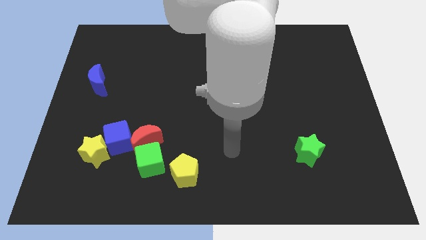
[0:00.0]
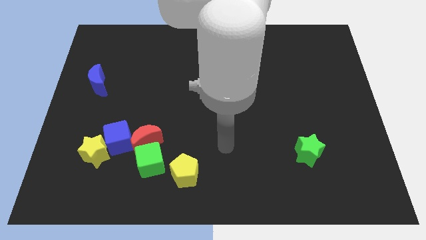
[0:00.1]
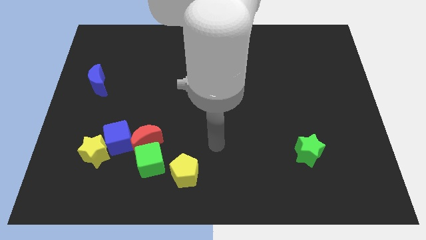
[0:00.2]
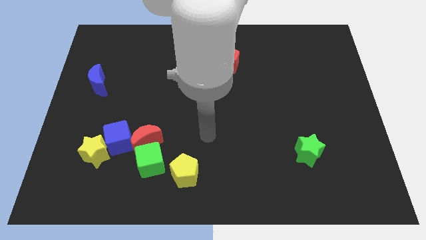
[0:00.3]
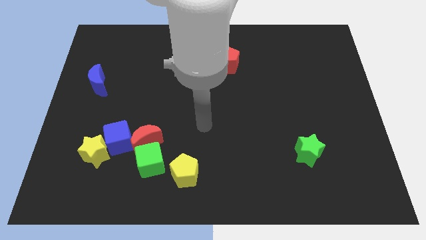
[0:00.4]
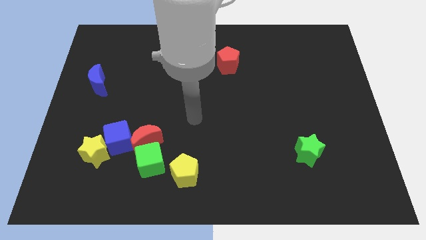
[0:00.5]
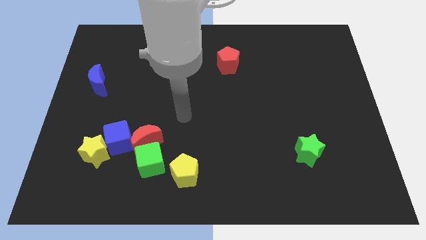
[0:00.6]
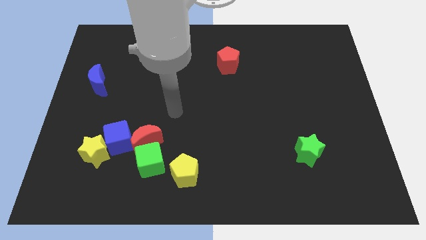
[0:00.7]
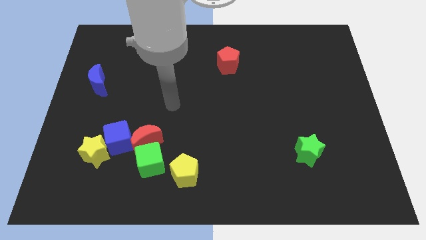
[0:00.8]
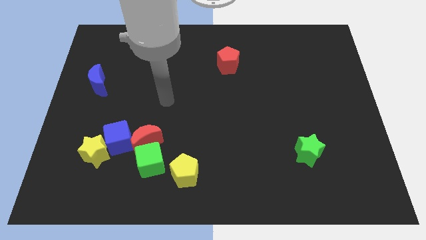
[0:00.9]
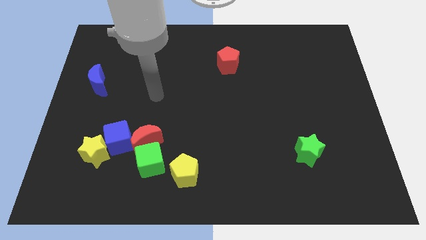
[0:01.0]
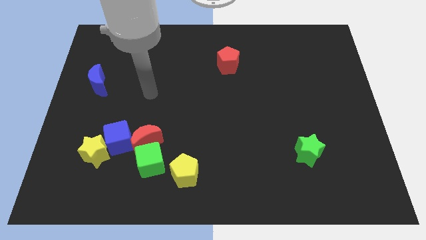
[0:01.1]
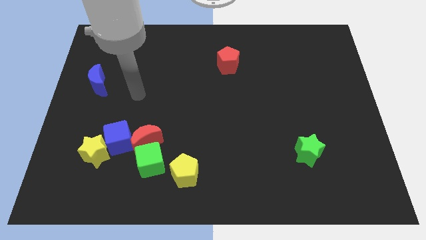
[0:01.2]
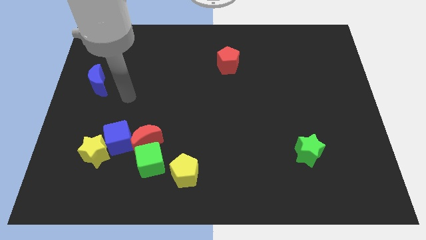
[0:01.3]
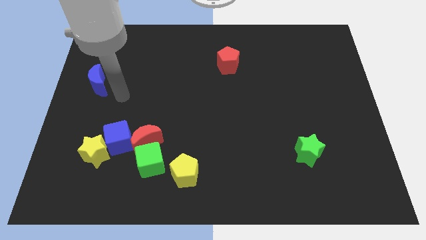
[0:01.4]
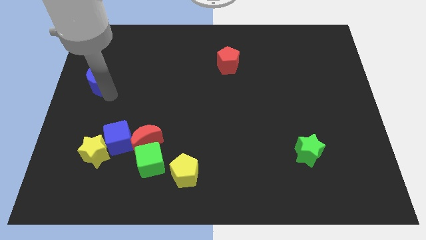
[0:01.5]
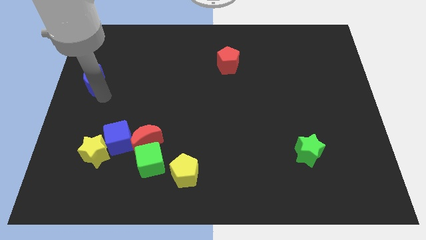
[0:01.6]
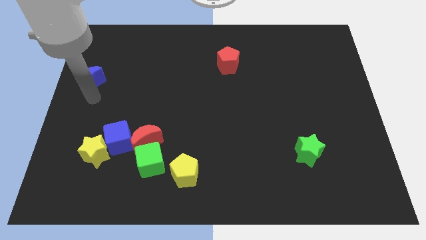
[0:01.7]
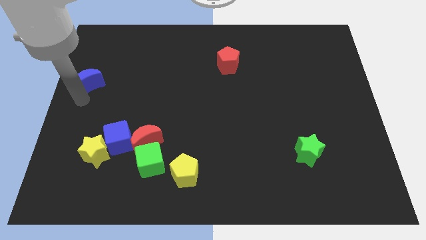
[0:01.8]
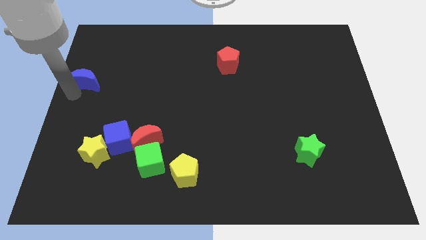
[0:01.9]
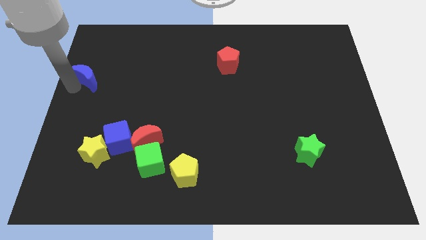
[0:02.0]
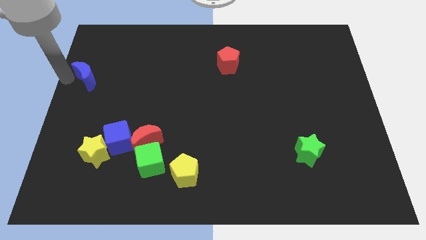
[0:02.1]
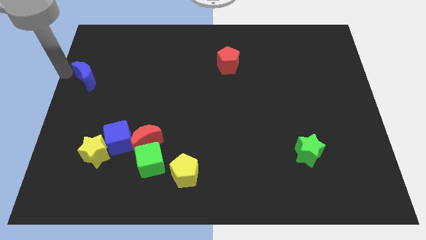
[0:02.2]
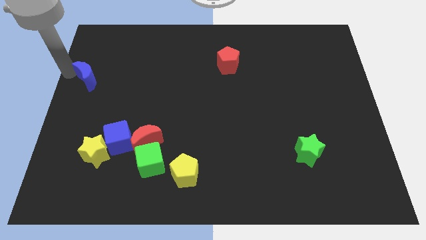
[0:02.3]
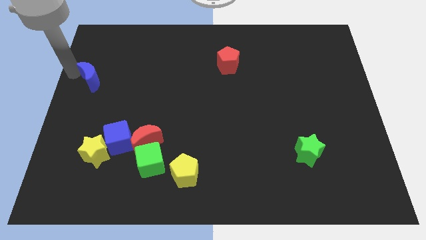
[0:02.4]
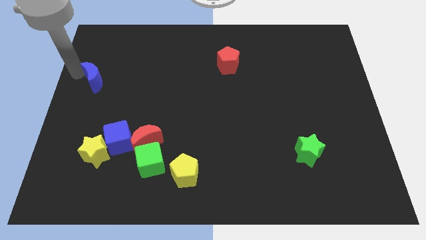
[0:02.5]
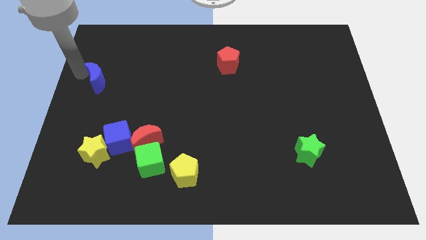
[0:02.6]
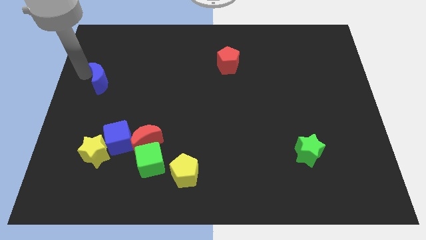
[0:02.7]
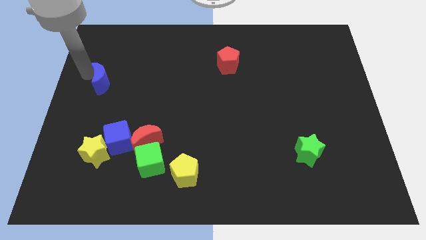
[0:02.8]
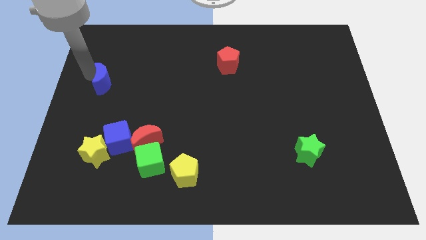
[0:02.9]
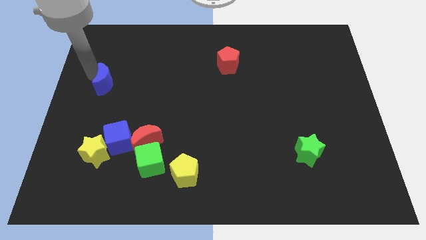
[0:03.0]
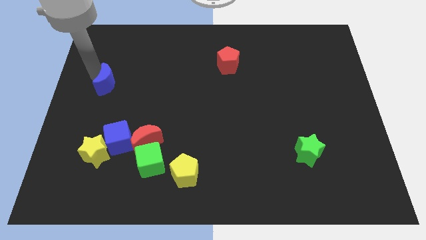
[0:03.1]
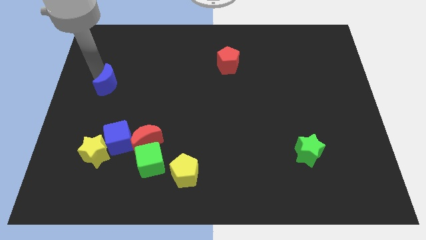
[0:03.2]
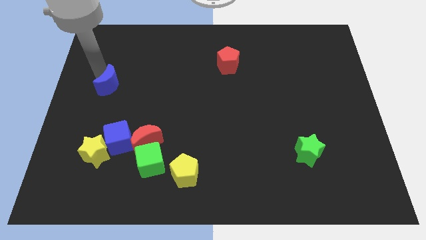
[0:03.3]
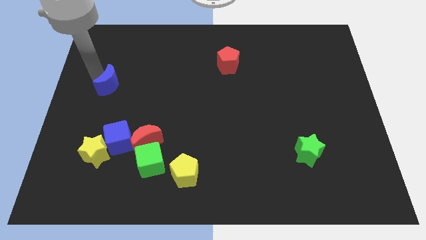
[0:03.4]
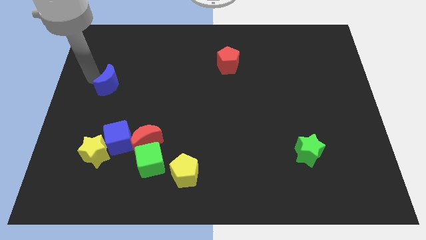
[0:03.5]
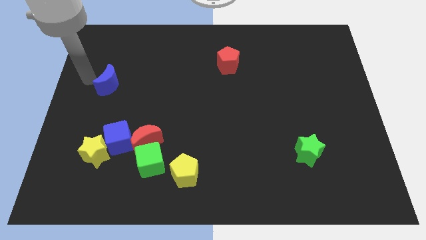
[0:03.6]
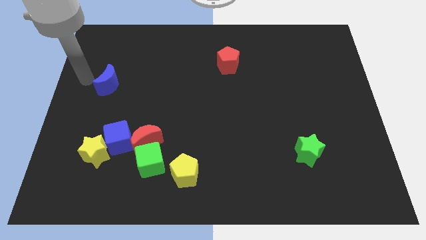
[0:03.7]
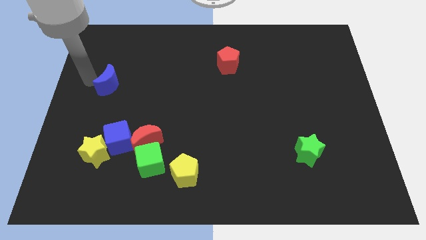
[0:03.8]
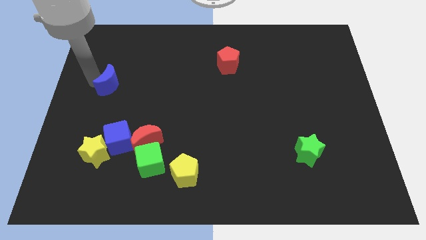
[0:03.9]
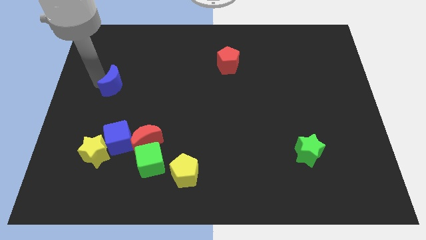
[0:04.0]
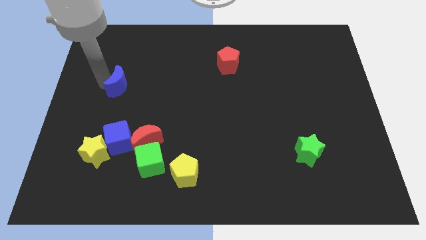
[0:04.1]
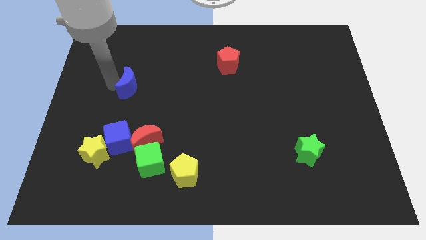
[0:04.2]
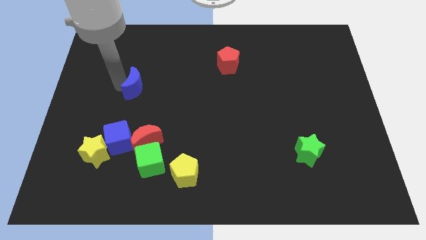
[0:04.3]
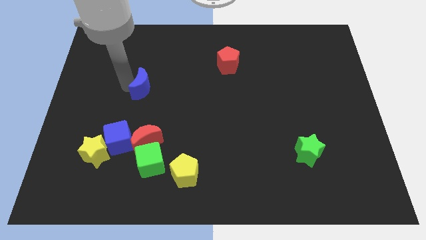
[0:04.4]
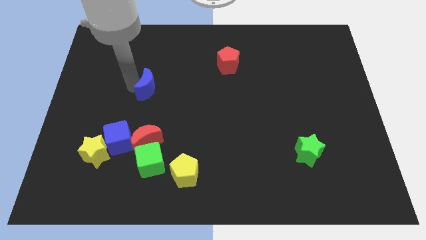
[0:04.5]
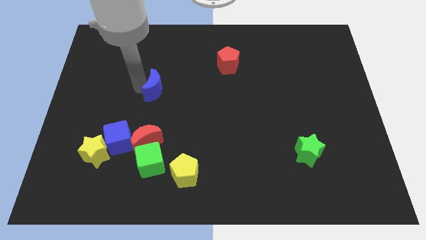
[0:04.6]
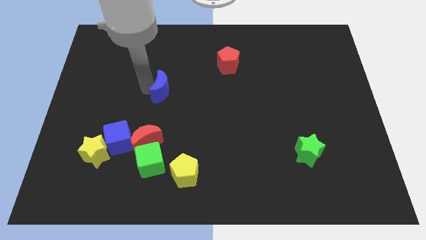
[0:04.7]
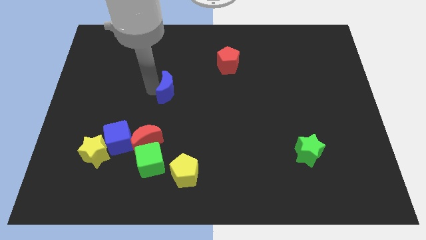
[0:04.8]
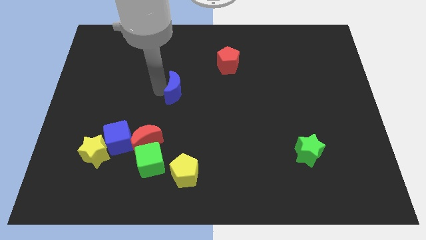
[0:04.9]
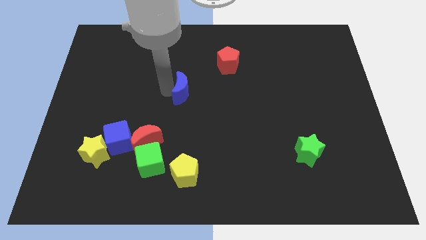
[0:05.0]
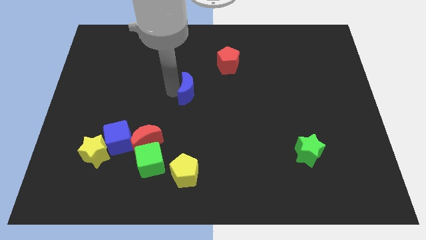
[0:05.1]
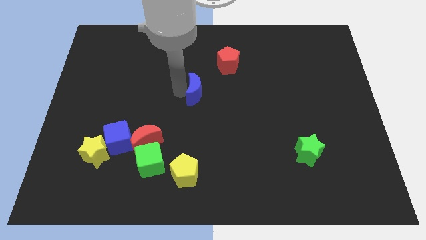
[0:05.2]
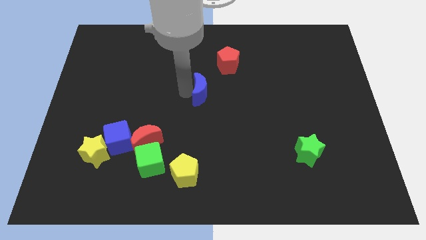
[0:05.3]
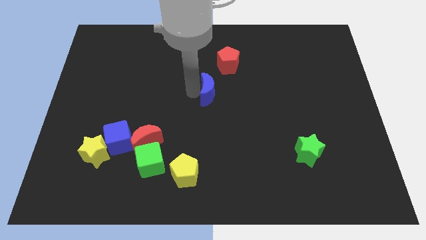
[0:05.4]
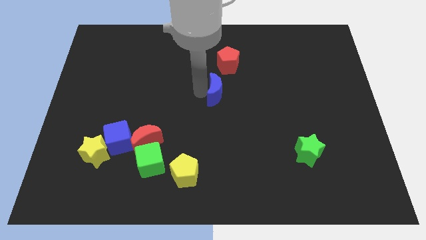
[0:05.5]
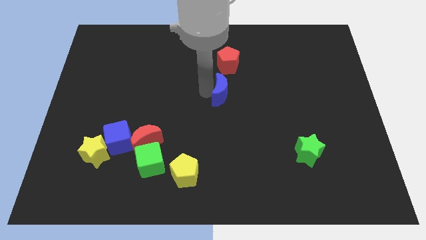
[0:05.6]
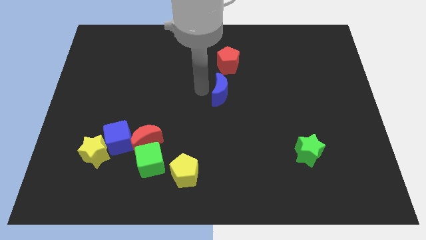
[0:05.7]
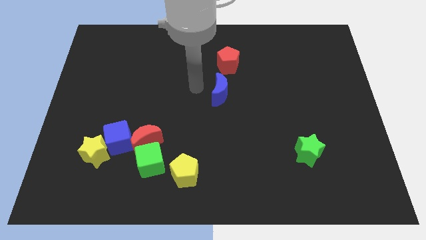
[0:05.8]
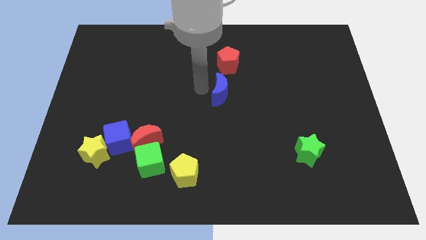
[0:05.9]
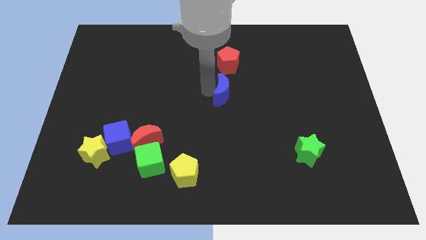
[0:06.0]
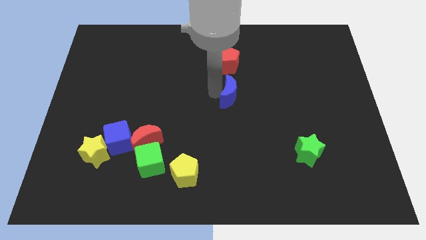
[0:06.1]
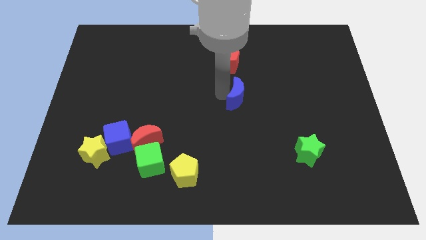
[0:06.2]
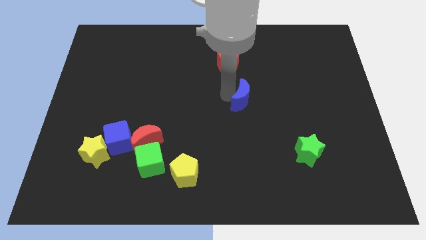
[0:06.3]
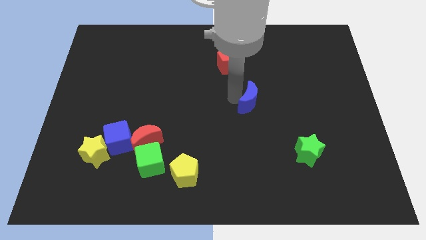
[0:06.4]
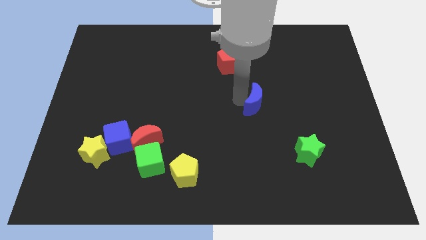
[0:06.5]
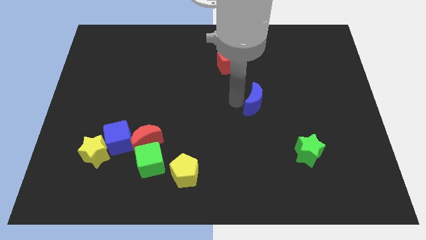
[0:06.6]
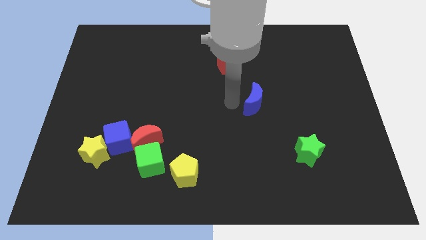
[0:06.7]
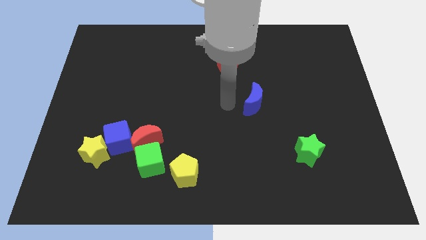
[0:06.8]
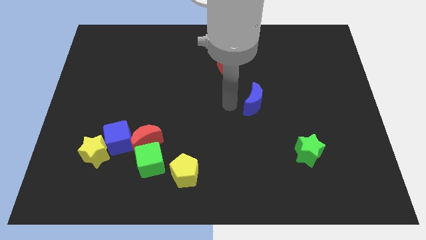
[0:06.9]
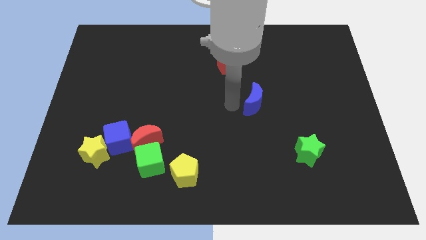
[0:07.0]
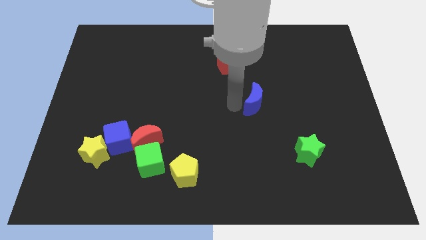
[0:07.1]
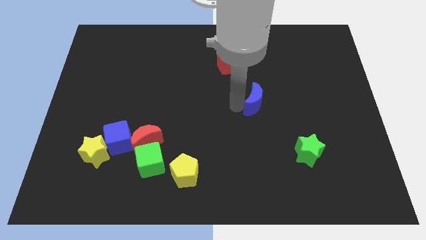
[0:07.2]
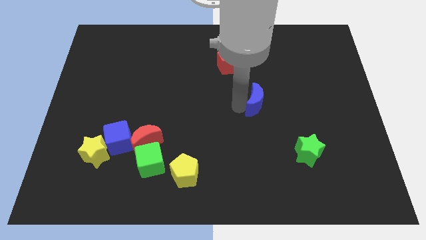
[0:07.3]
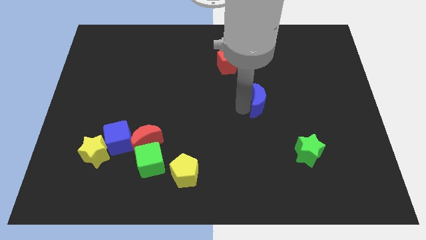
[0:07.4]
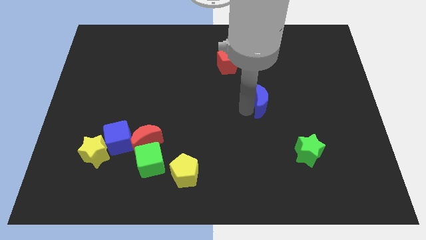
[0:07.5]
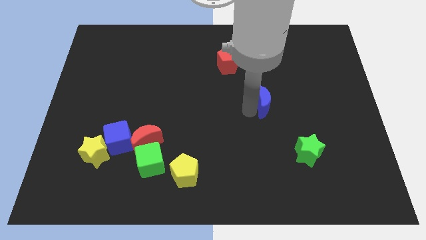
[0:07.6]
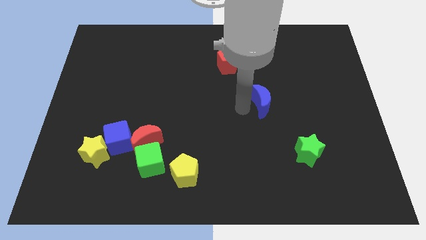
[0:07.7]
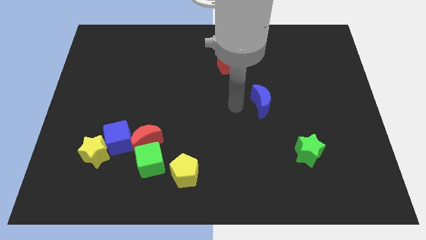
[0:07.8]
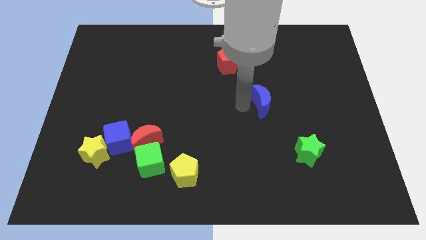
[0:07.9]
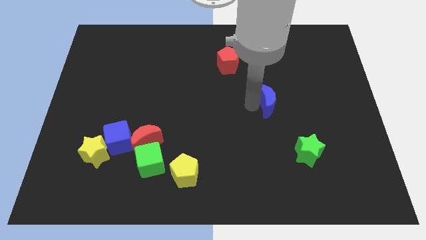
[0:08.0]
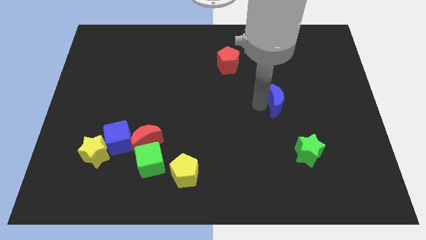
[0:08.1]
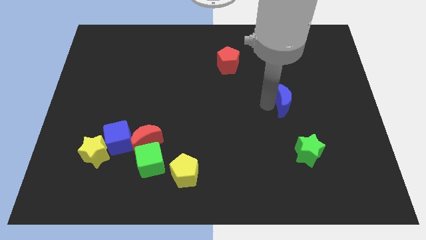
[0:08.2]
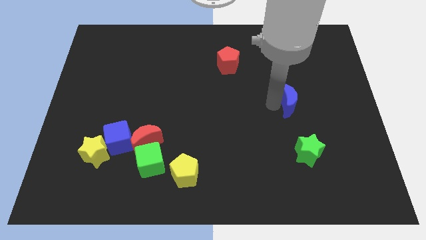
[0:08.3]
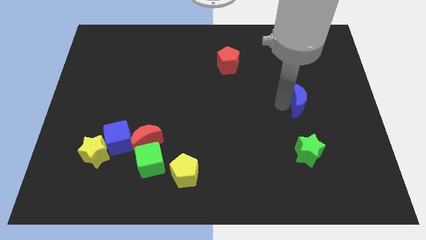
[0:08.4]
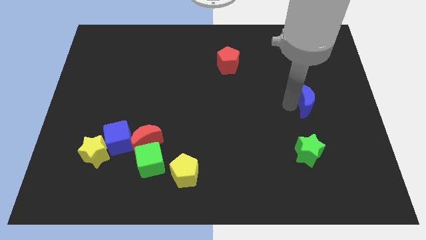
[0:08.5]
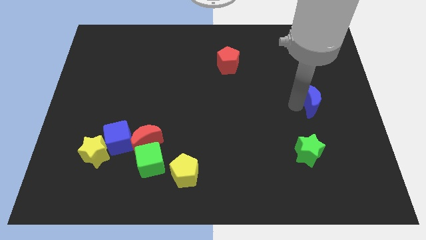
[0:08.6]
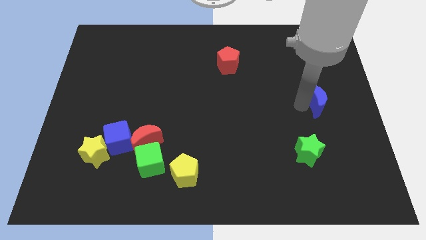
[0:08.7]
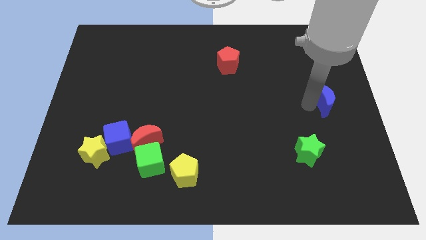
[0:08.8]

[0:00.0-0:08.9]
push the blue moon to the right side of the board
